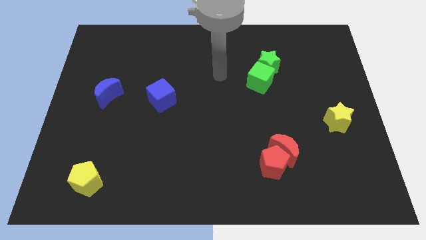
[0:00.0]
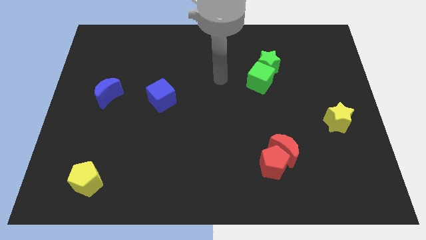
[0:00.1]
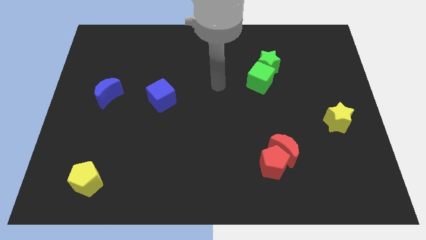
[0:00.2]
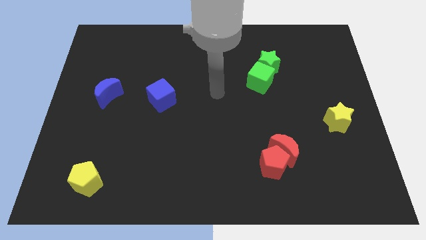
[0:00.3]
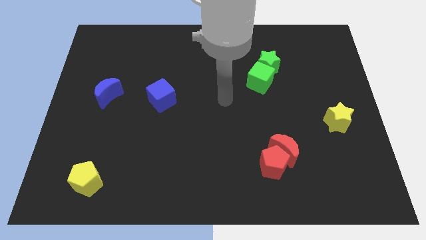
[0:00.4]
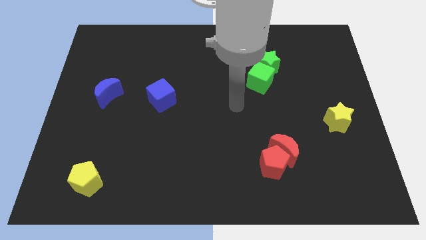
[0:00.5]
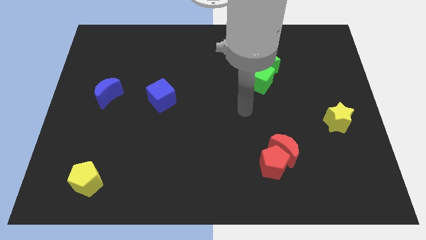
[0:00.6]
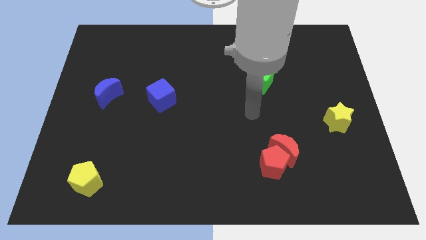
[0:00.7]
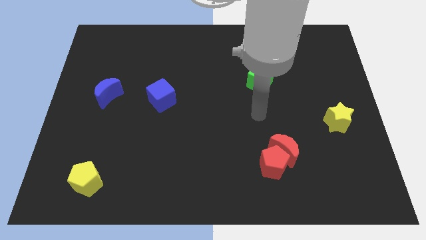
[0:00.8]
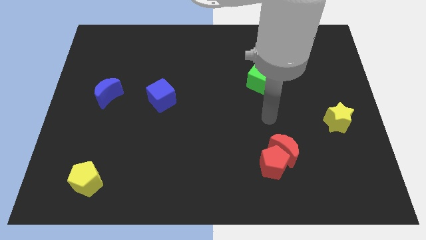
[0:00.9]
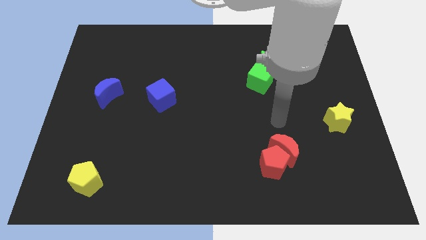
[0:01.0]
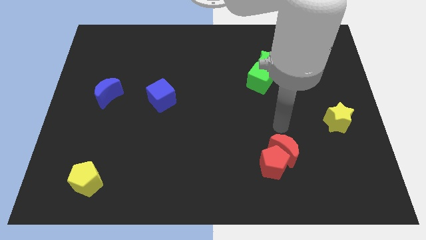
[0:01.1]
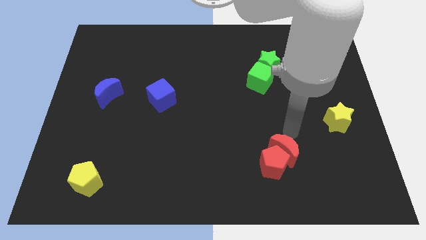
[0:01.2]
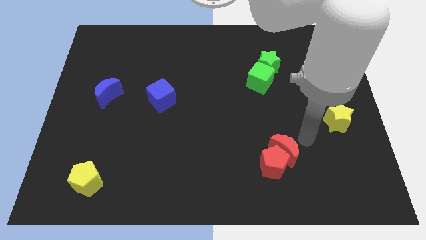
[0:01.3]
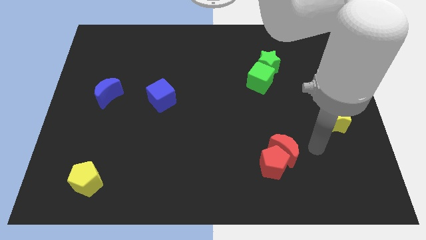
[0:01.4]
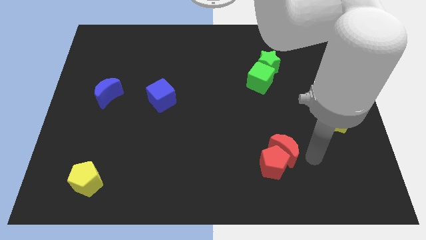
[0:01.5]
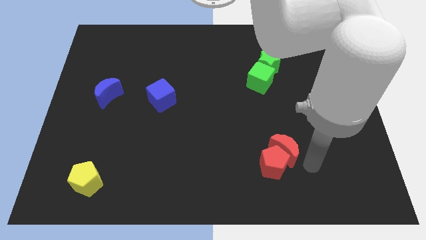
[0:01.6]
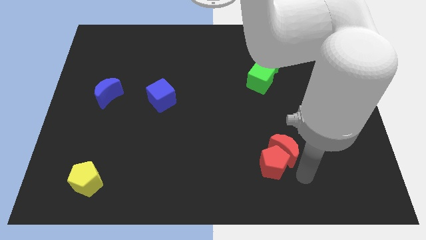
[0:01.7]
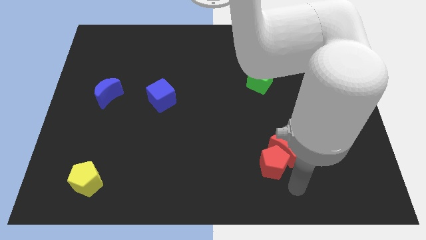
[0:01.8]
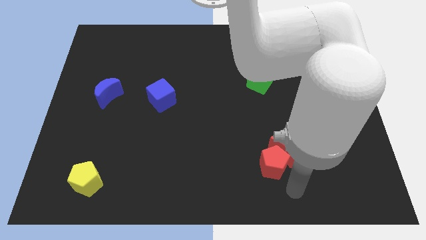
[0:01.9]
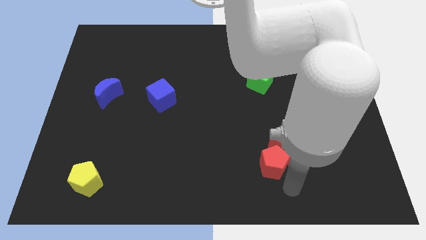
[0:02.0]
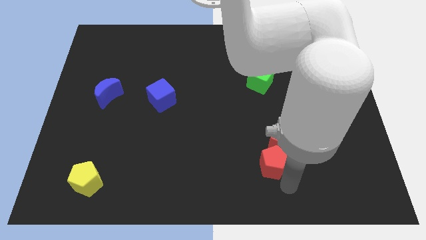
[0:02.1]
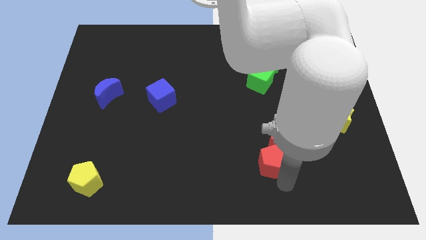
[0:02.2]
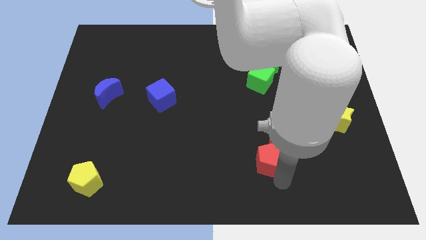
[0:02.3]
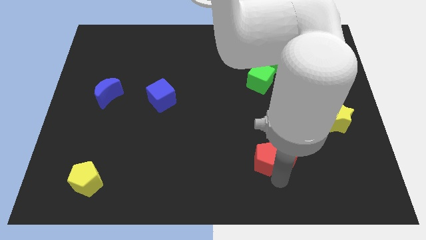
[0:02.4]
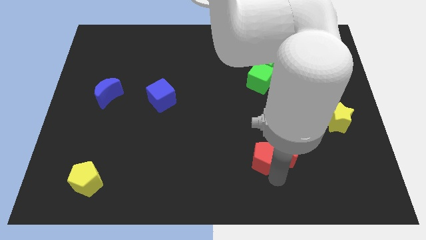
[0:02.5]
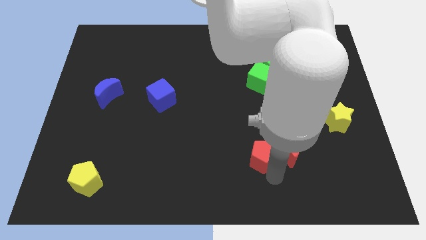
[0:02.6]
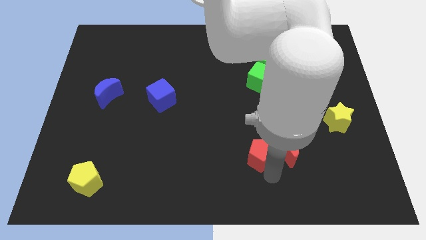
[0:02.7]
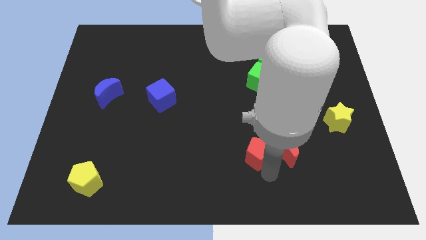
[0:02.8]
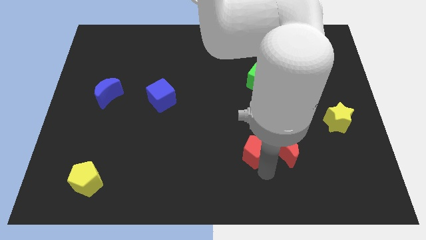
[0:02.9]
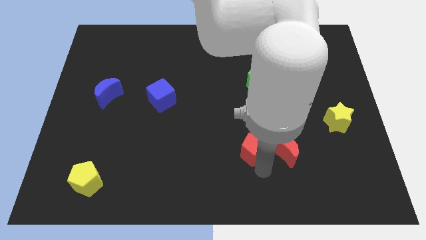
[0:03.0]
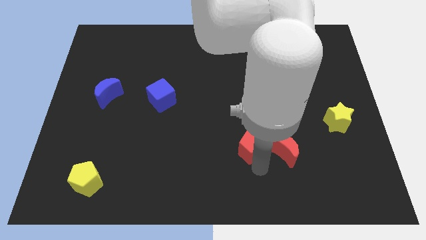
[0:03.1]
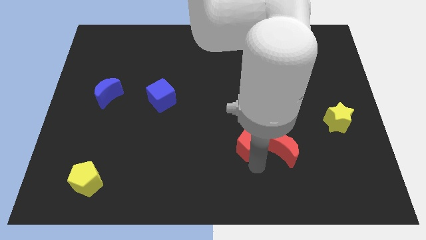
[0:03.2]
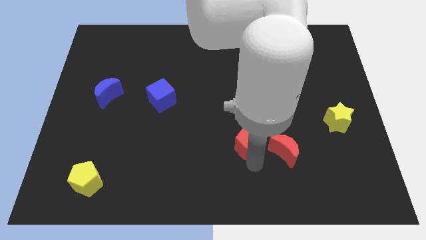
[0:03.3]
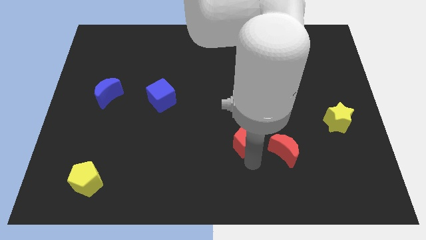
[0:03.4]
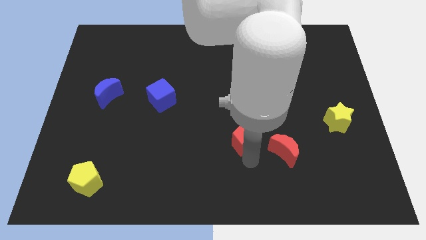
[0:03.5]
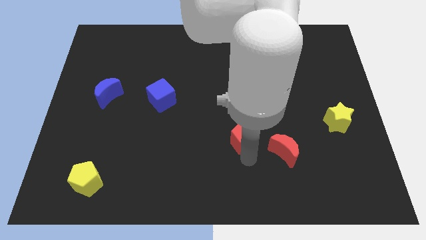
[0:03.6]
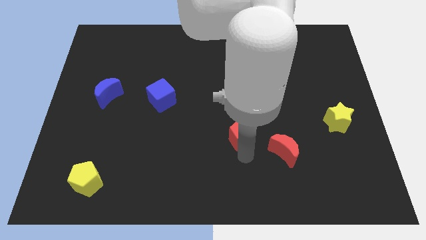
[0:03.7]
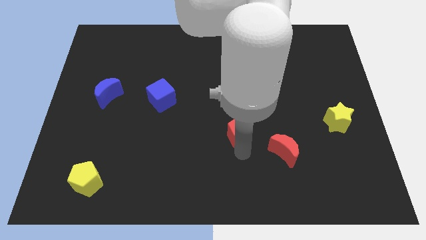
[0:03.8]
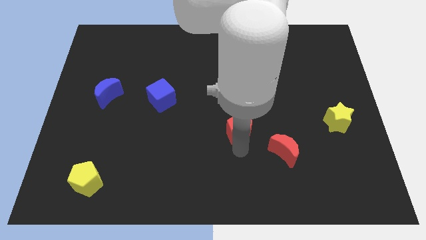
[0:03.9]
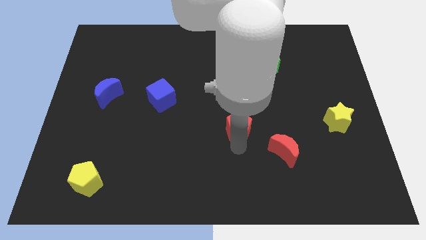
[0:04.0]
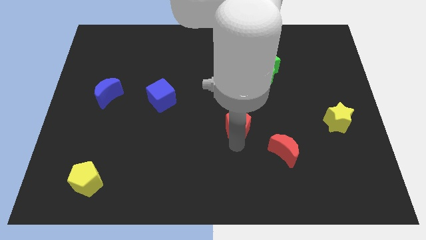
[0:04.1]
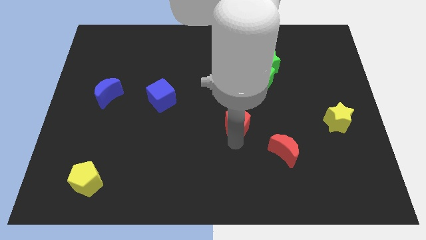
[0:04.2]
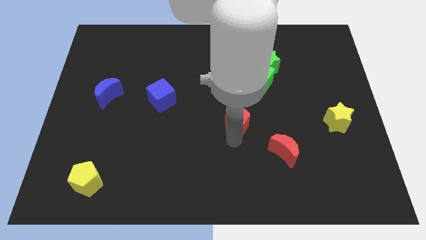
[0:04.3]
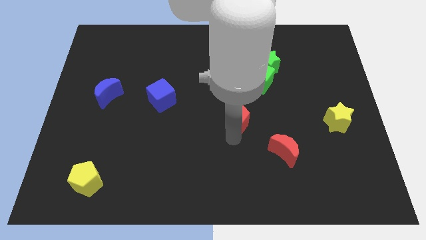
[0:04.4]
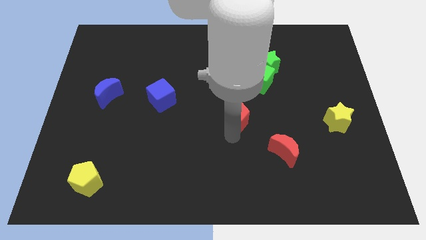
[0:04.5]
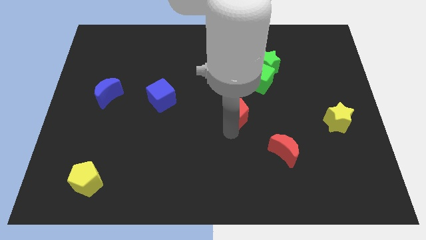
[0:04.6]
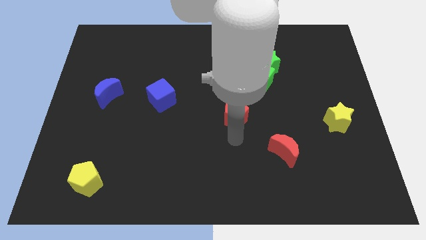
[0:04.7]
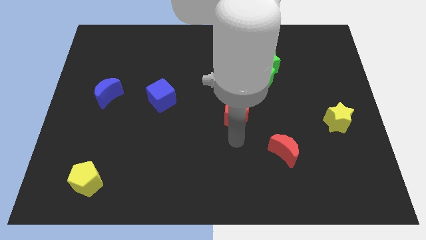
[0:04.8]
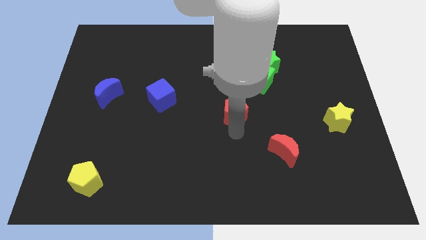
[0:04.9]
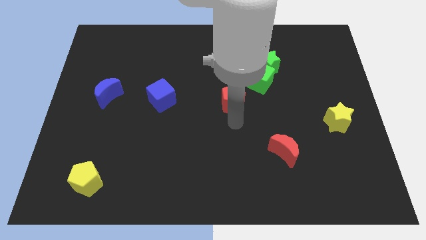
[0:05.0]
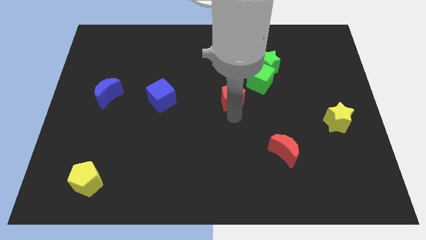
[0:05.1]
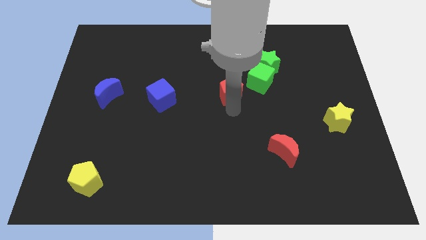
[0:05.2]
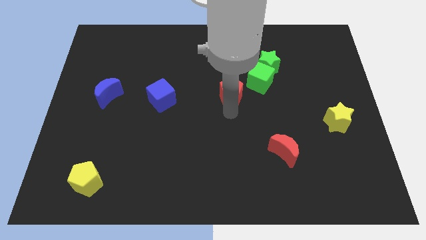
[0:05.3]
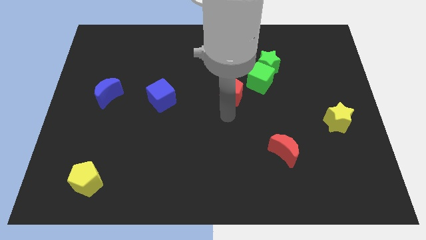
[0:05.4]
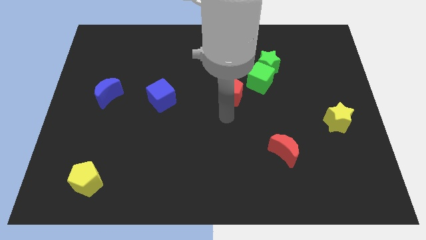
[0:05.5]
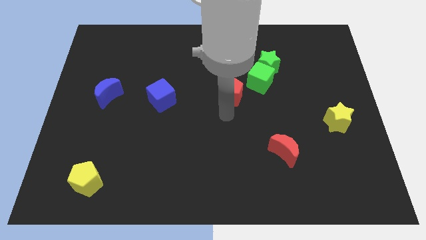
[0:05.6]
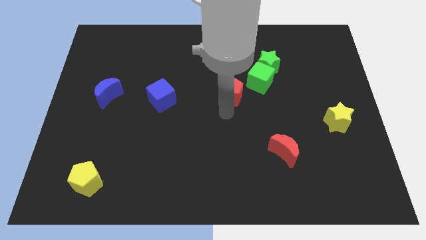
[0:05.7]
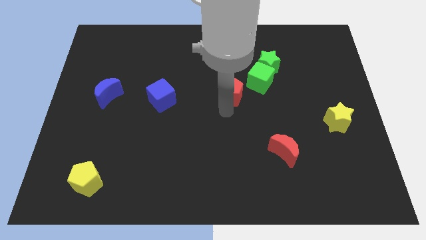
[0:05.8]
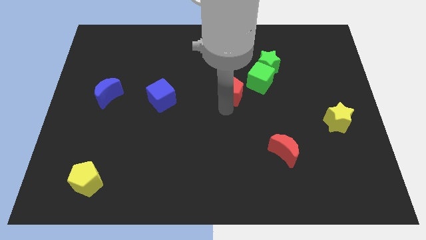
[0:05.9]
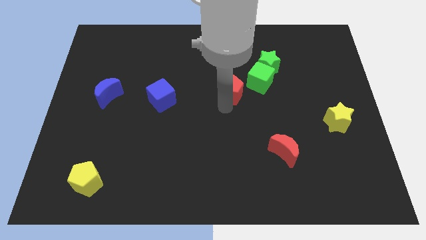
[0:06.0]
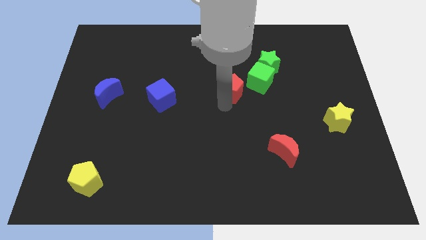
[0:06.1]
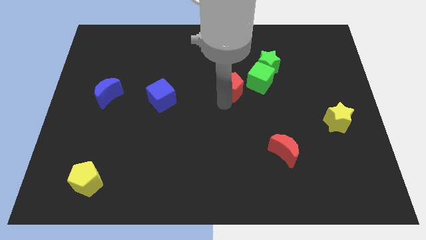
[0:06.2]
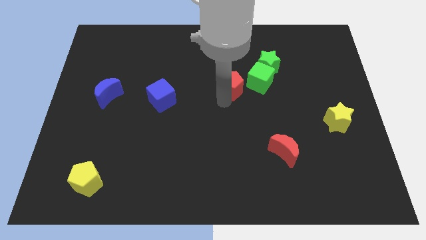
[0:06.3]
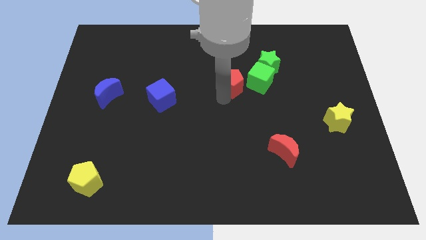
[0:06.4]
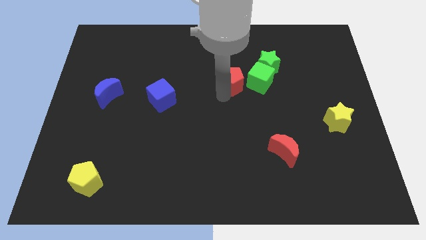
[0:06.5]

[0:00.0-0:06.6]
push the red pentagon upwards

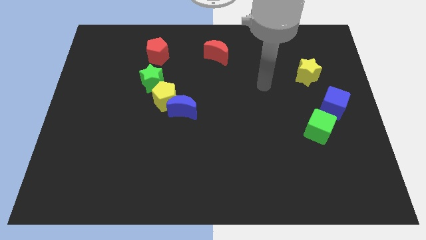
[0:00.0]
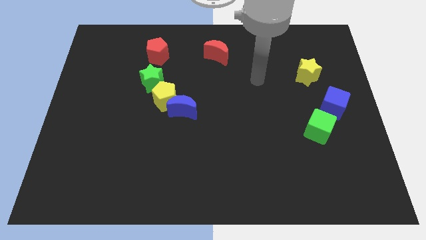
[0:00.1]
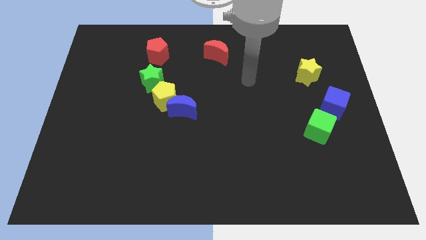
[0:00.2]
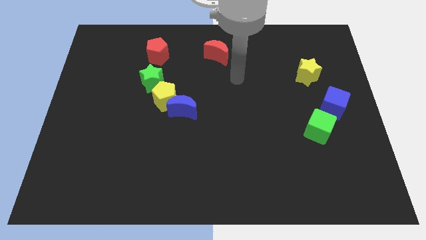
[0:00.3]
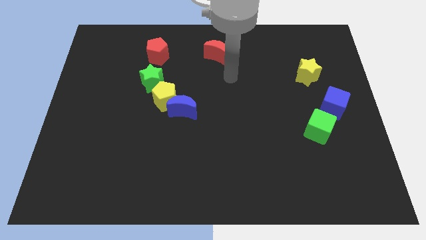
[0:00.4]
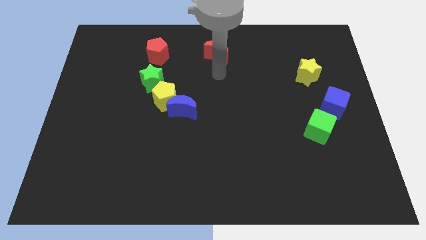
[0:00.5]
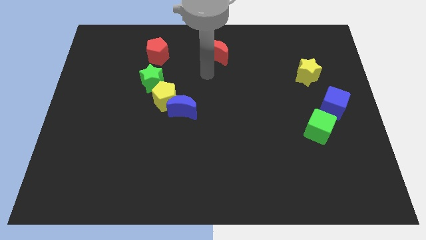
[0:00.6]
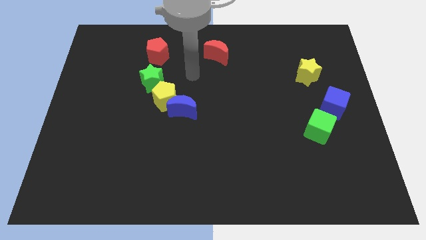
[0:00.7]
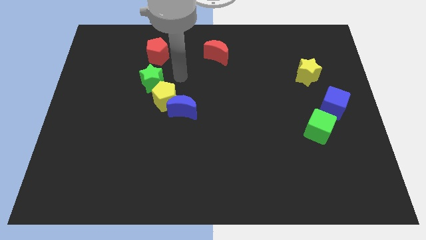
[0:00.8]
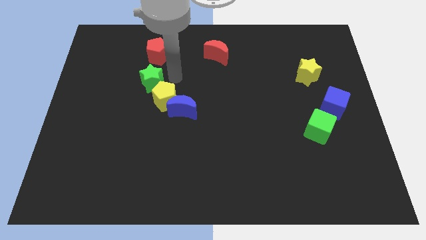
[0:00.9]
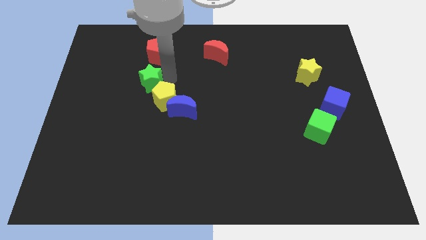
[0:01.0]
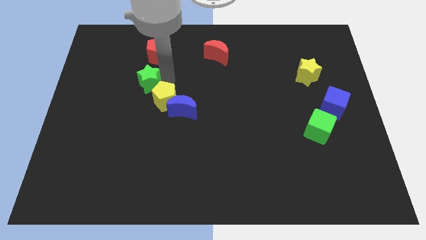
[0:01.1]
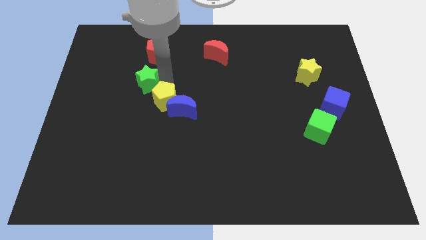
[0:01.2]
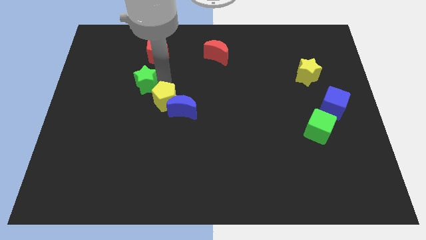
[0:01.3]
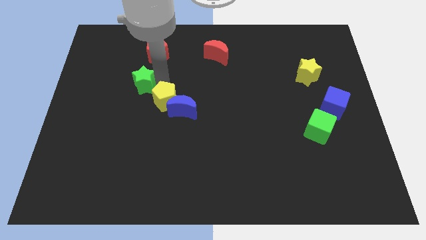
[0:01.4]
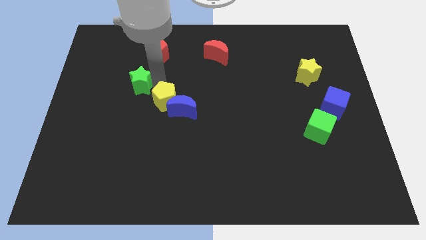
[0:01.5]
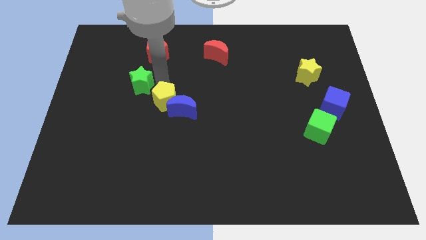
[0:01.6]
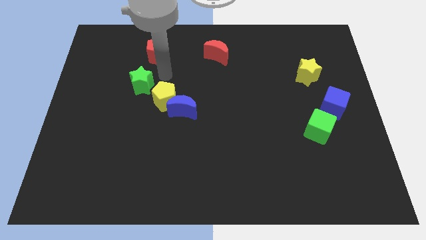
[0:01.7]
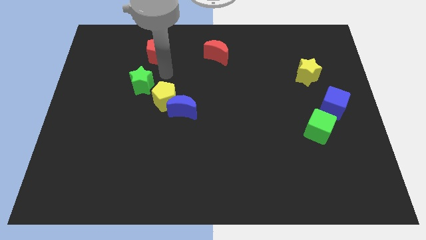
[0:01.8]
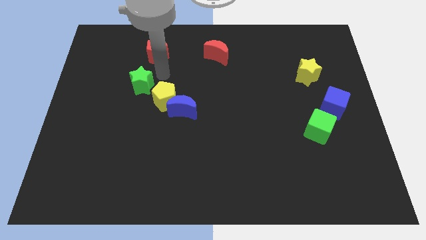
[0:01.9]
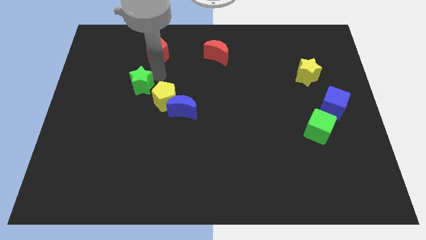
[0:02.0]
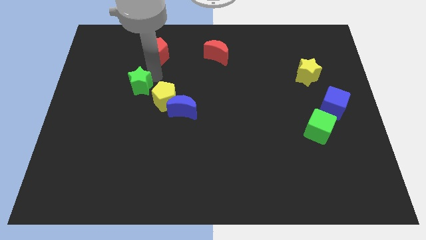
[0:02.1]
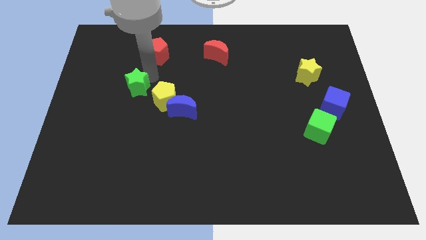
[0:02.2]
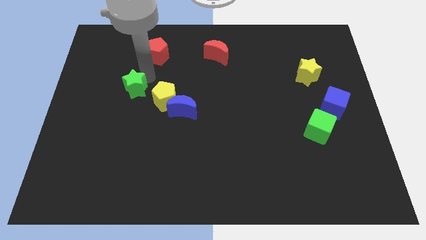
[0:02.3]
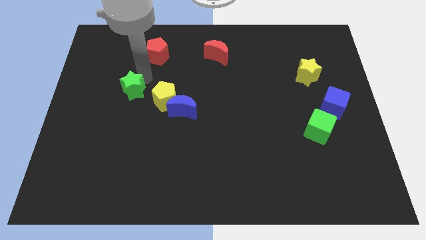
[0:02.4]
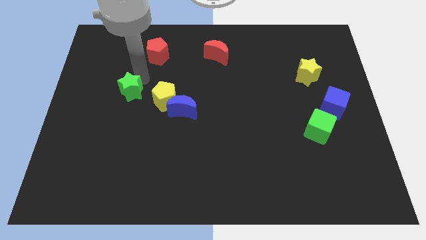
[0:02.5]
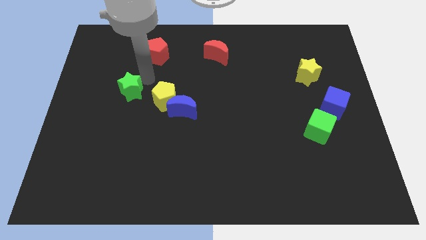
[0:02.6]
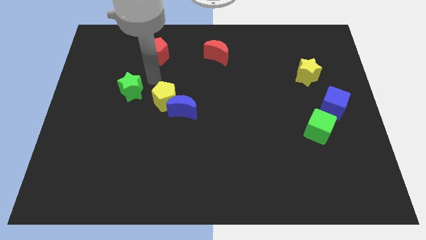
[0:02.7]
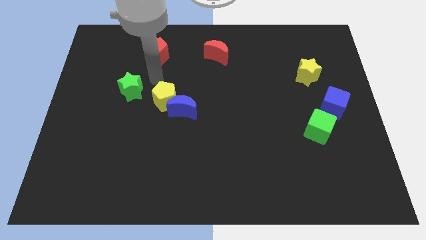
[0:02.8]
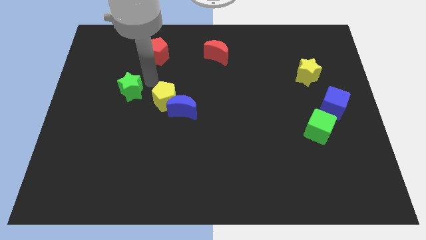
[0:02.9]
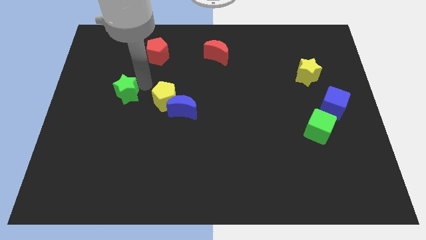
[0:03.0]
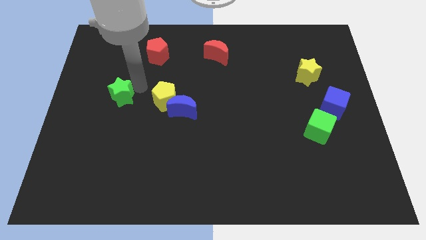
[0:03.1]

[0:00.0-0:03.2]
push the green star diagonally downwards and to the left a little
